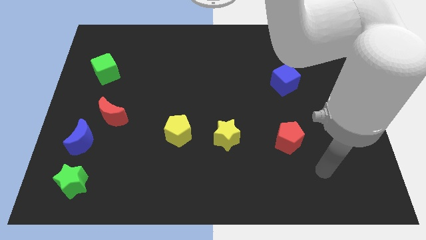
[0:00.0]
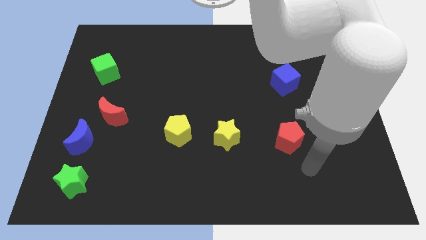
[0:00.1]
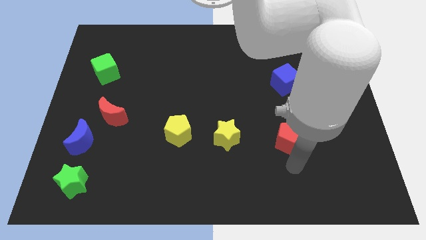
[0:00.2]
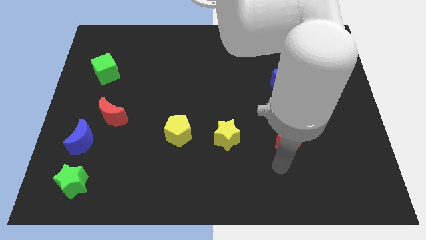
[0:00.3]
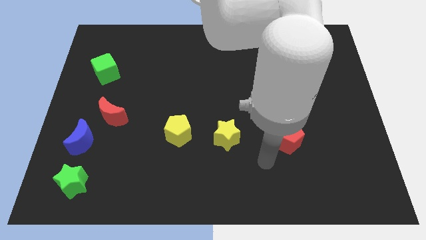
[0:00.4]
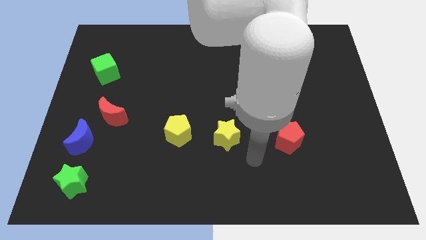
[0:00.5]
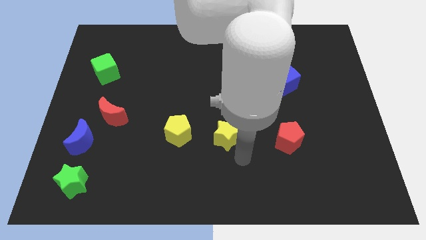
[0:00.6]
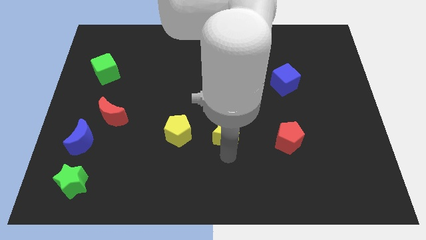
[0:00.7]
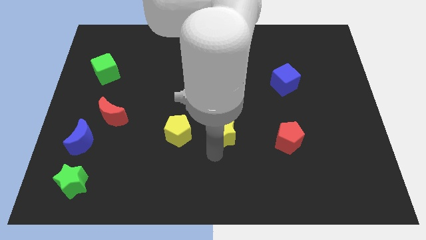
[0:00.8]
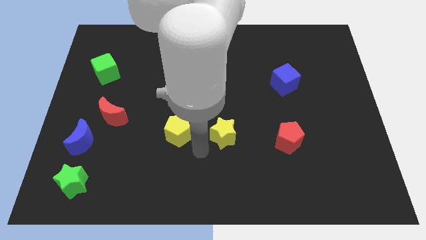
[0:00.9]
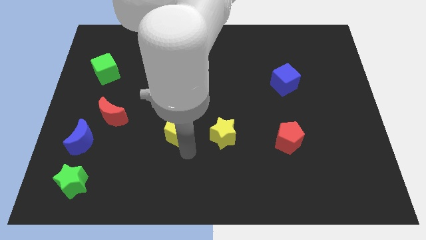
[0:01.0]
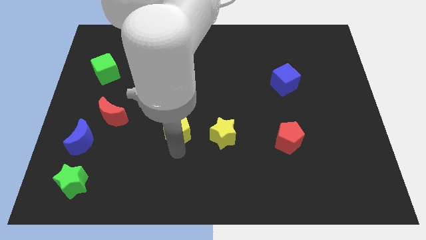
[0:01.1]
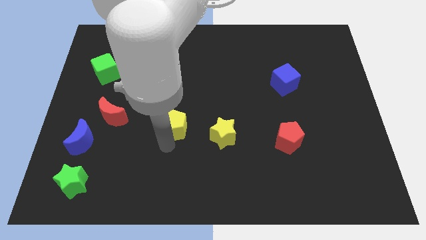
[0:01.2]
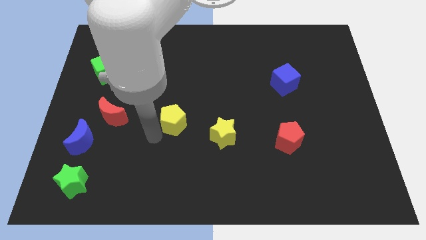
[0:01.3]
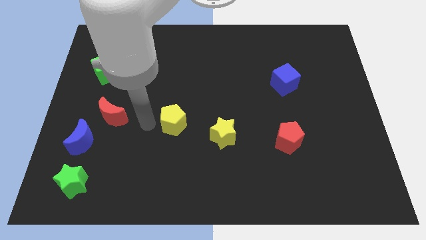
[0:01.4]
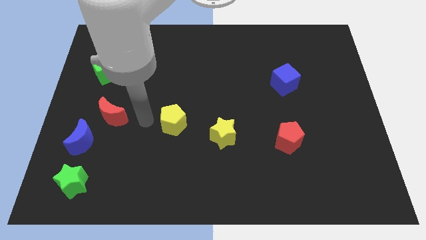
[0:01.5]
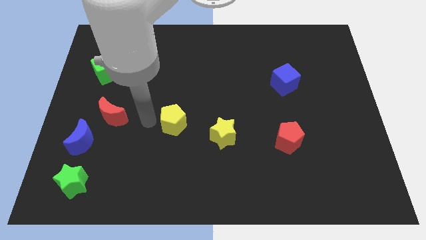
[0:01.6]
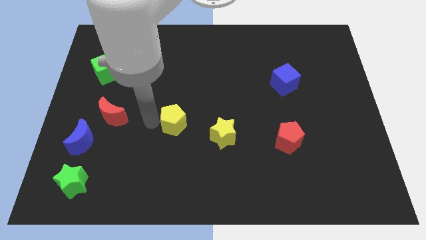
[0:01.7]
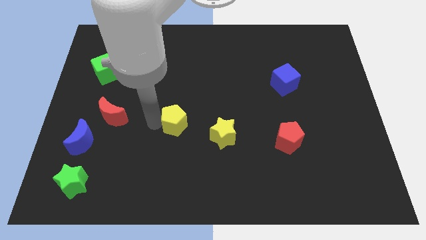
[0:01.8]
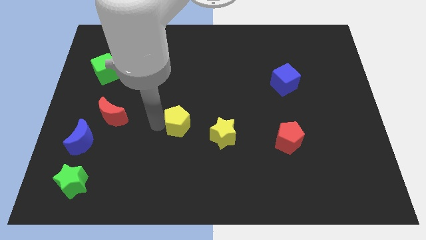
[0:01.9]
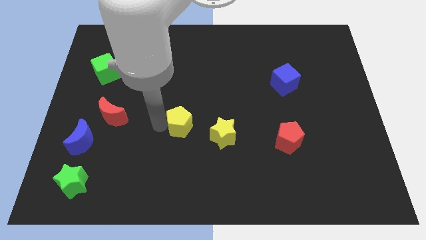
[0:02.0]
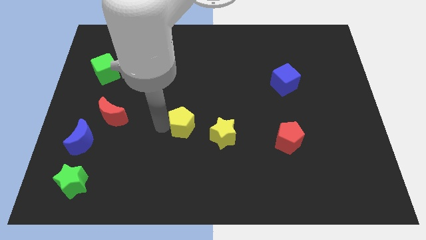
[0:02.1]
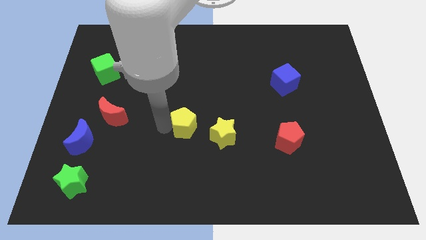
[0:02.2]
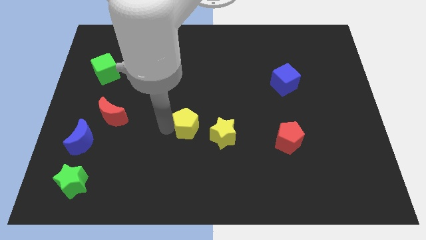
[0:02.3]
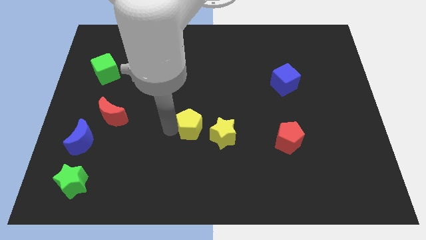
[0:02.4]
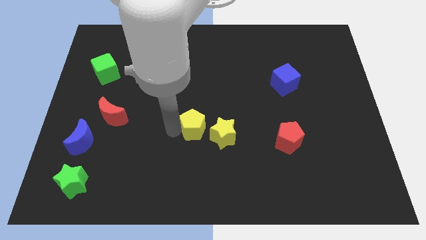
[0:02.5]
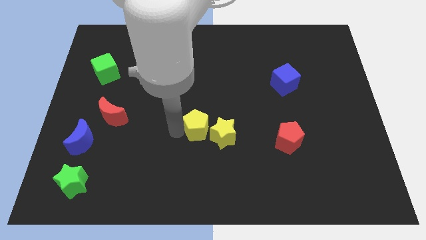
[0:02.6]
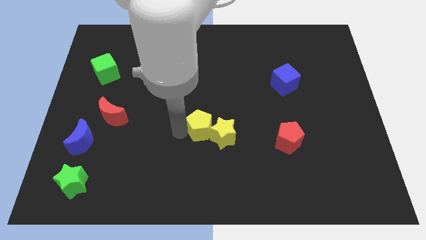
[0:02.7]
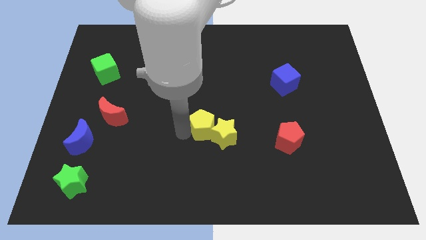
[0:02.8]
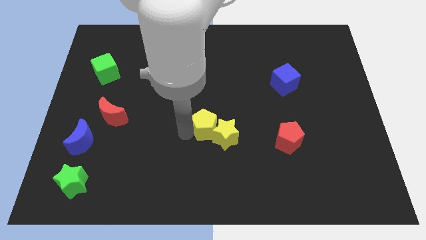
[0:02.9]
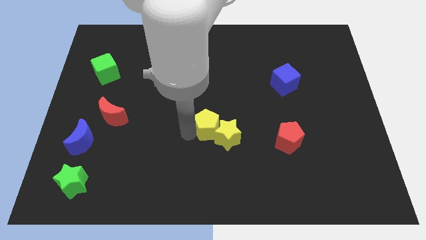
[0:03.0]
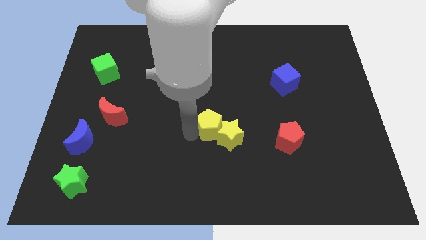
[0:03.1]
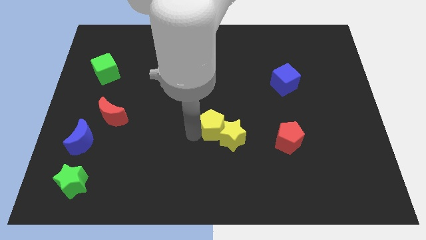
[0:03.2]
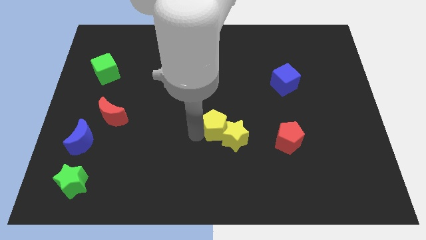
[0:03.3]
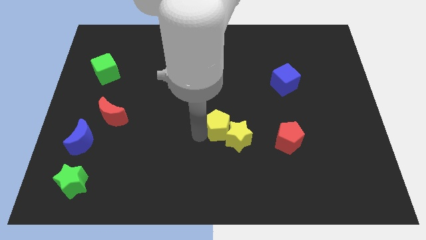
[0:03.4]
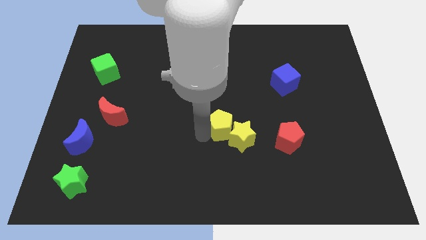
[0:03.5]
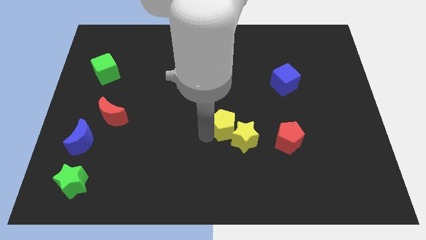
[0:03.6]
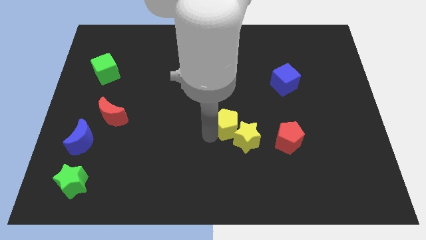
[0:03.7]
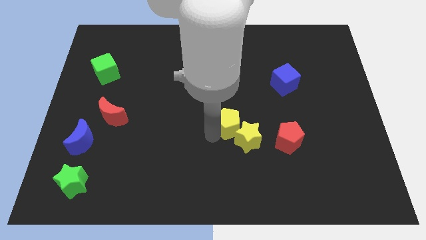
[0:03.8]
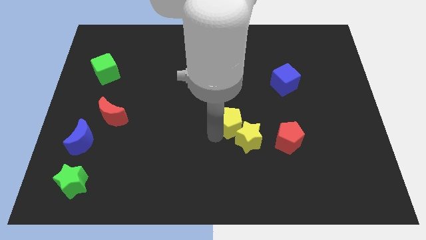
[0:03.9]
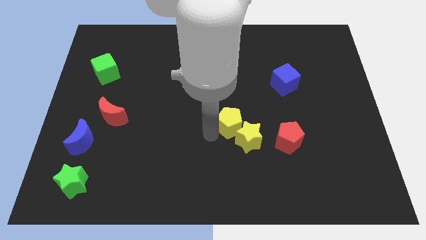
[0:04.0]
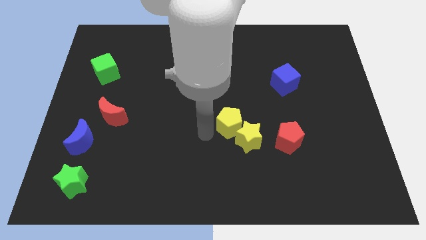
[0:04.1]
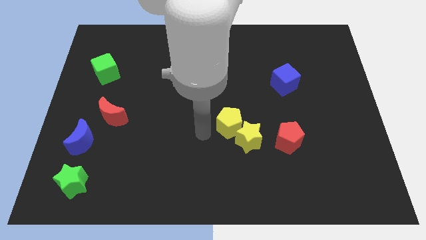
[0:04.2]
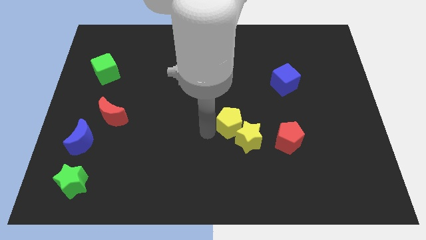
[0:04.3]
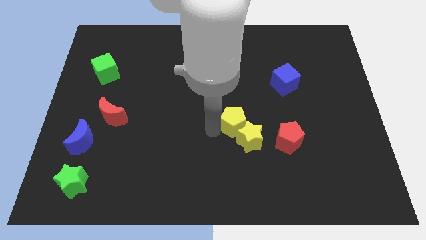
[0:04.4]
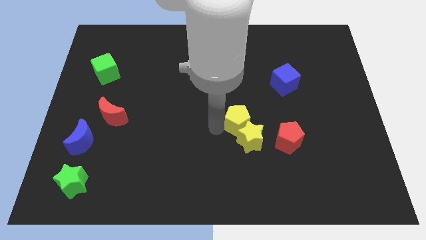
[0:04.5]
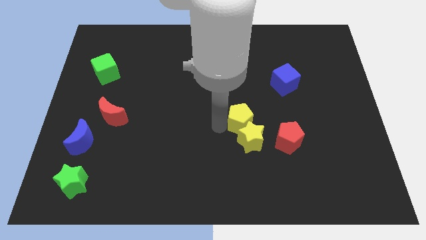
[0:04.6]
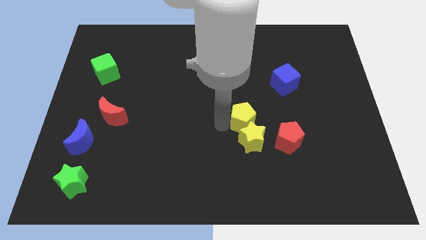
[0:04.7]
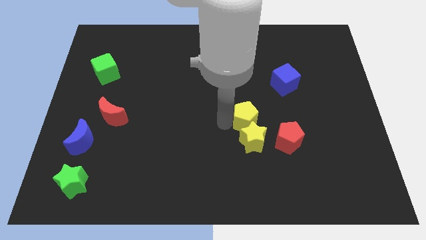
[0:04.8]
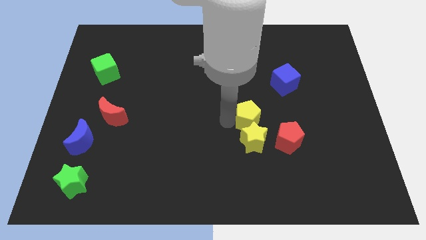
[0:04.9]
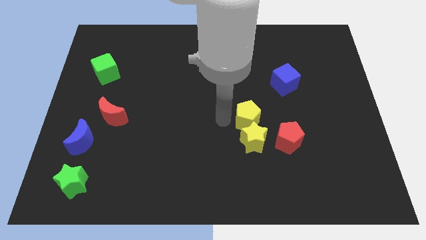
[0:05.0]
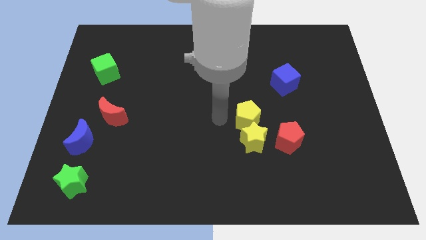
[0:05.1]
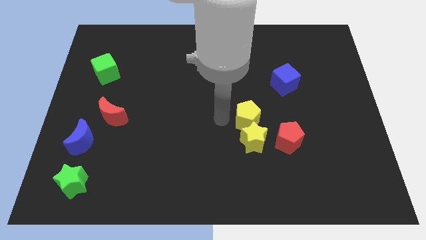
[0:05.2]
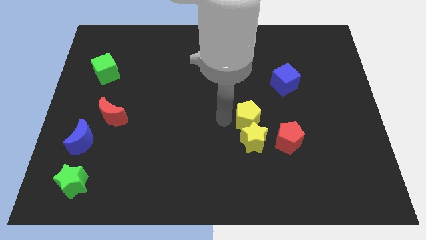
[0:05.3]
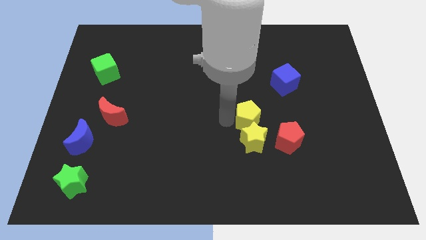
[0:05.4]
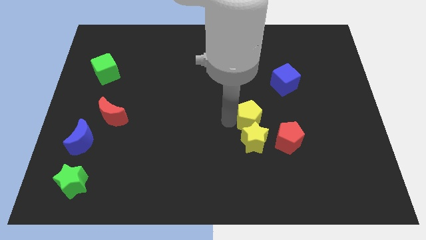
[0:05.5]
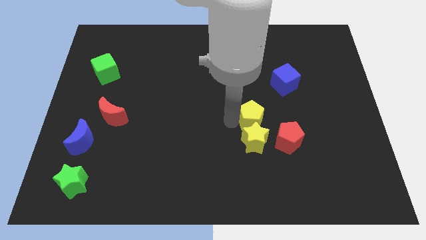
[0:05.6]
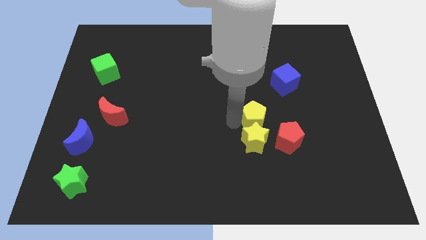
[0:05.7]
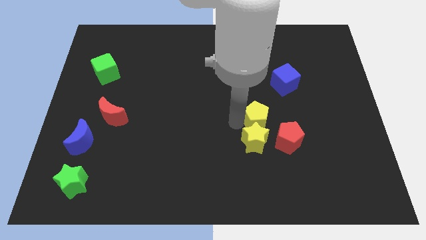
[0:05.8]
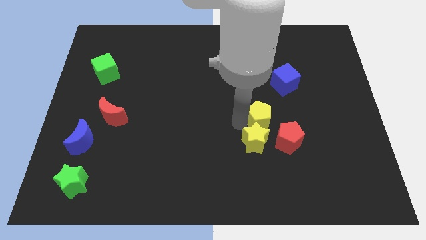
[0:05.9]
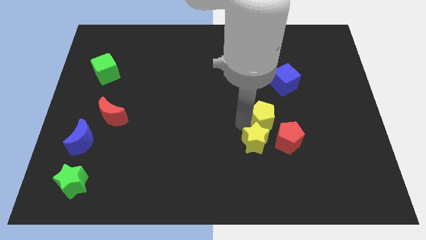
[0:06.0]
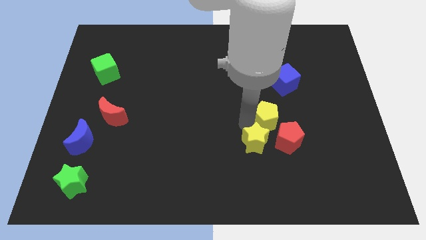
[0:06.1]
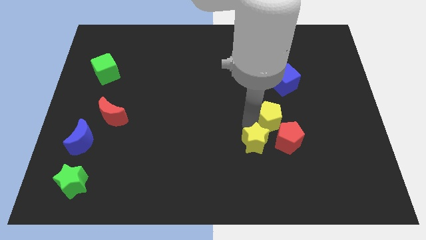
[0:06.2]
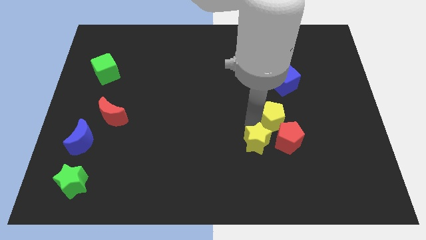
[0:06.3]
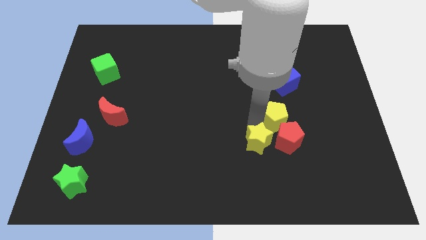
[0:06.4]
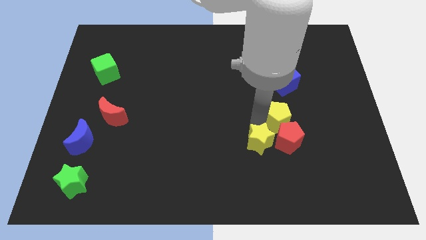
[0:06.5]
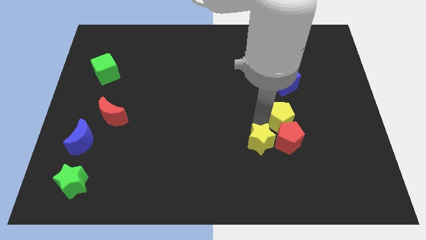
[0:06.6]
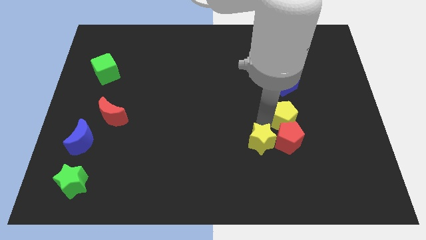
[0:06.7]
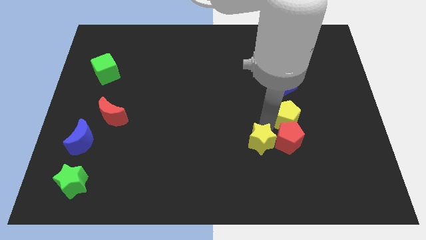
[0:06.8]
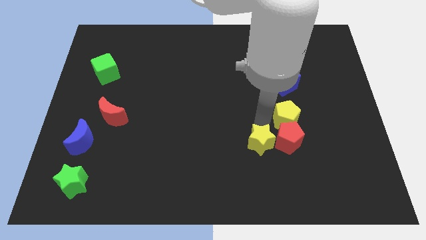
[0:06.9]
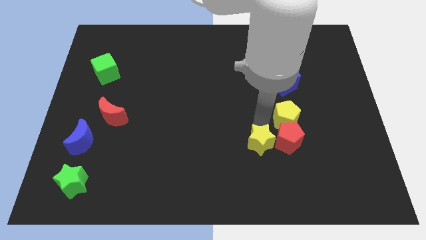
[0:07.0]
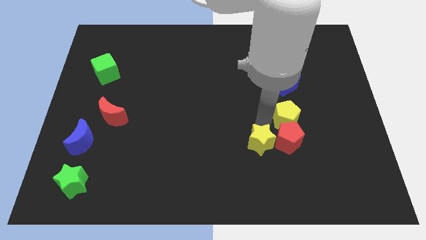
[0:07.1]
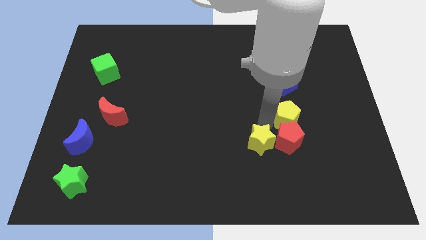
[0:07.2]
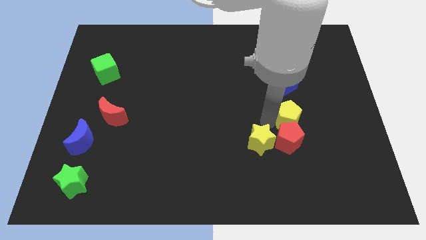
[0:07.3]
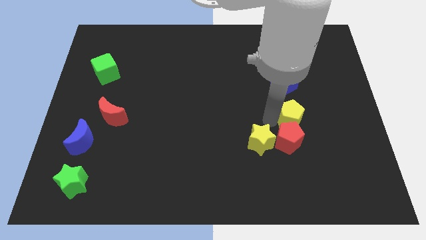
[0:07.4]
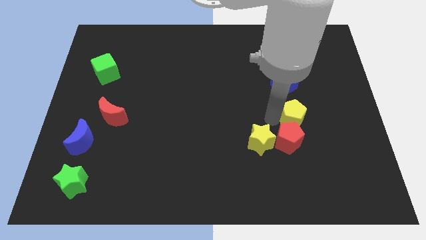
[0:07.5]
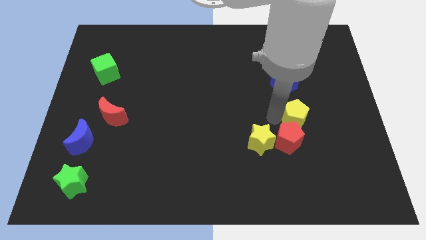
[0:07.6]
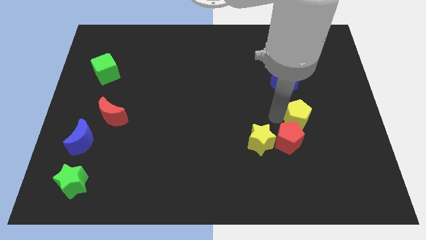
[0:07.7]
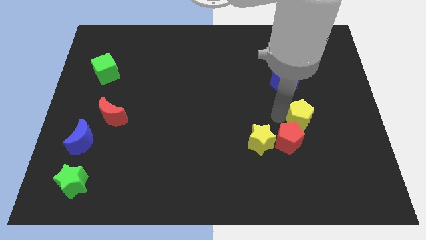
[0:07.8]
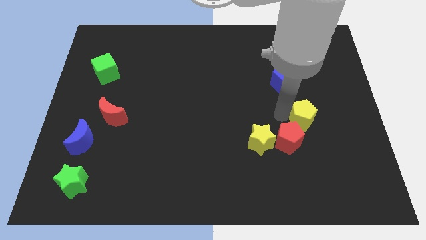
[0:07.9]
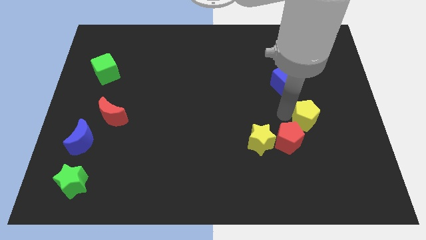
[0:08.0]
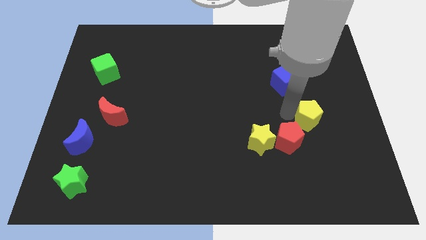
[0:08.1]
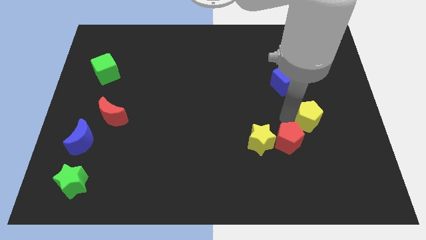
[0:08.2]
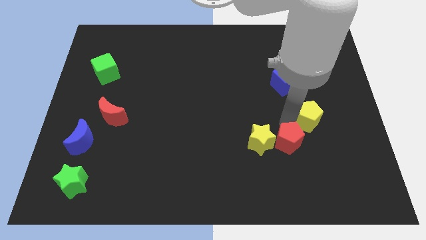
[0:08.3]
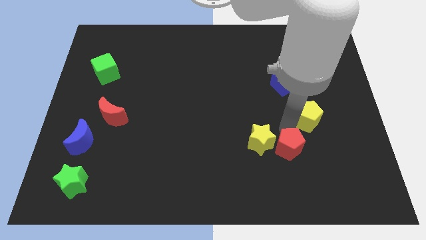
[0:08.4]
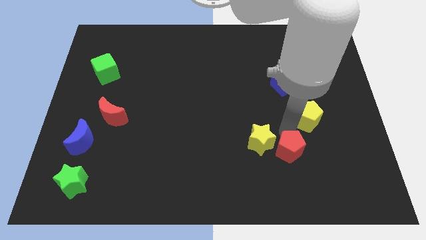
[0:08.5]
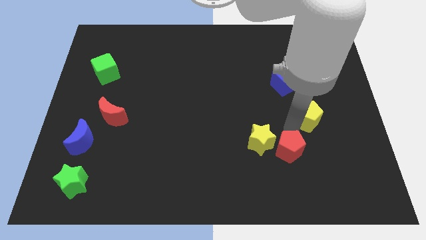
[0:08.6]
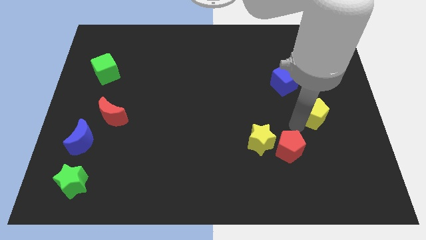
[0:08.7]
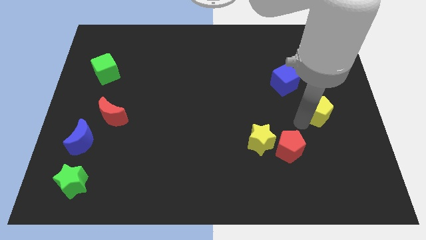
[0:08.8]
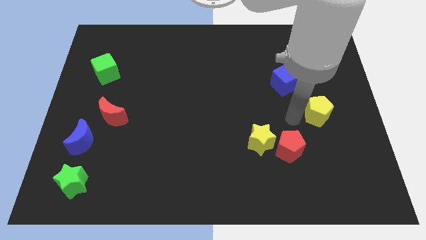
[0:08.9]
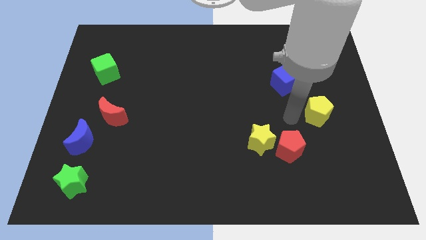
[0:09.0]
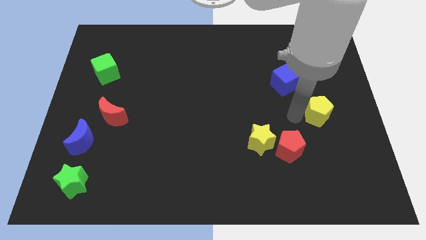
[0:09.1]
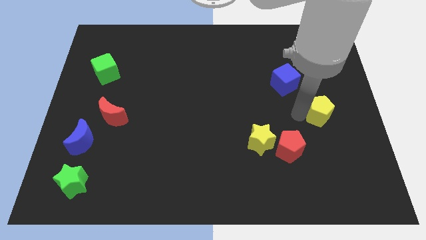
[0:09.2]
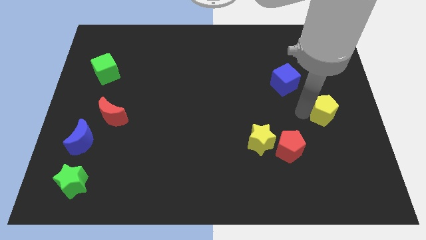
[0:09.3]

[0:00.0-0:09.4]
put the yellow pentagon to the right side of the board
